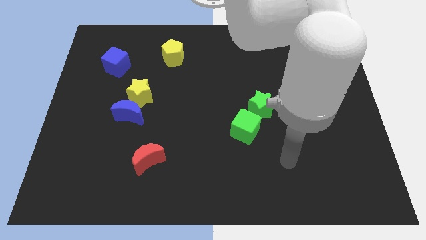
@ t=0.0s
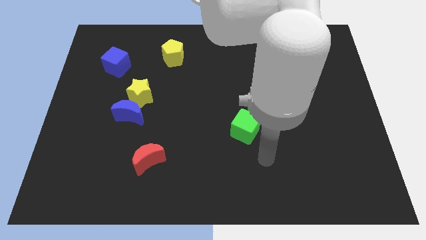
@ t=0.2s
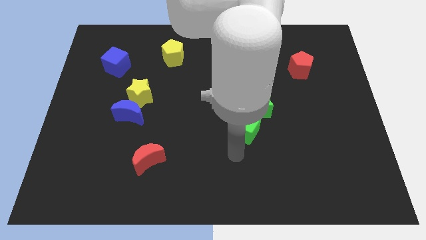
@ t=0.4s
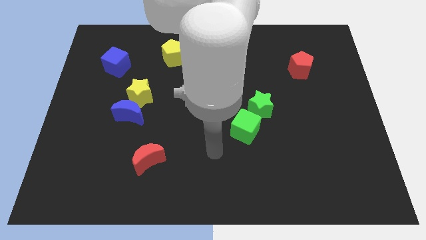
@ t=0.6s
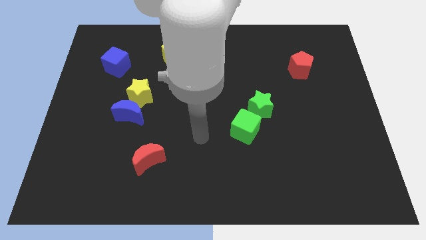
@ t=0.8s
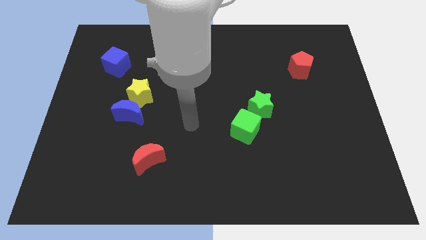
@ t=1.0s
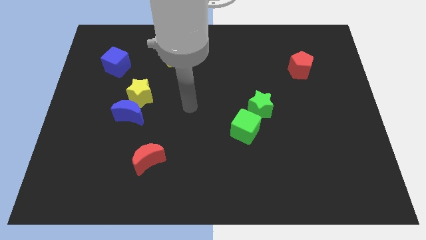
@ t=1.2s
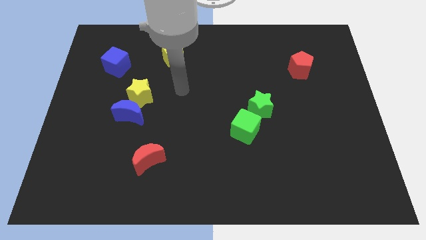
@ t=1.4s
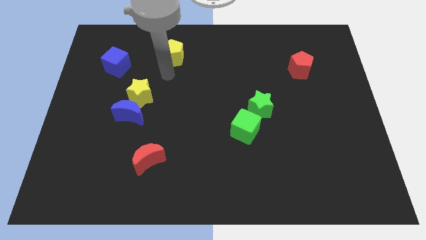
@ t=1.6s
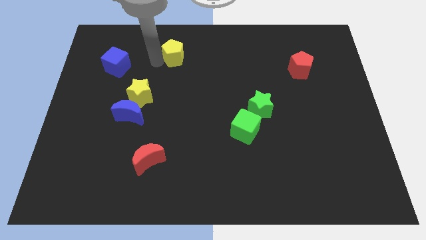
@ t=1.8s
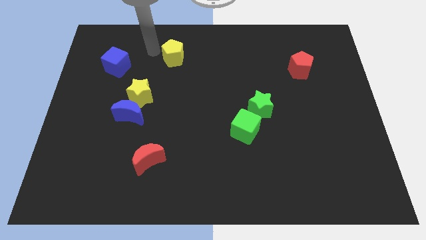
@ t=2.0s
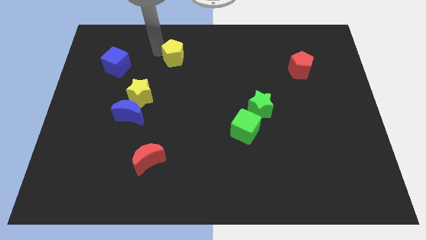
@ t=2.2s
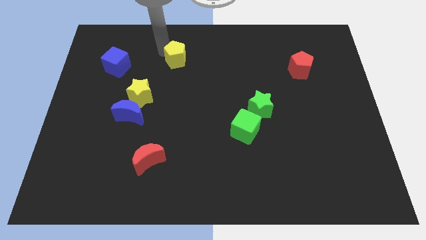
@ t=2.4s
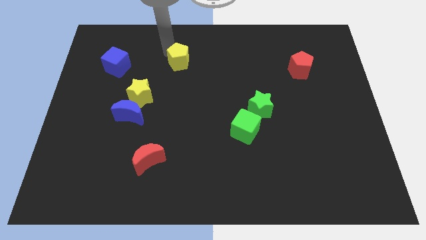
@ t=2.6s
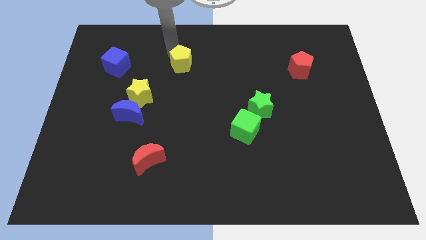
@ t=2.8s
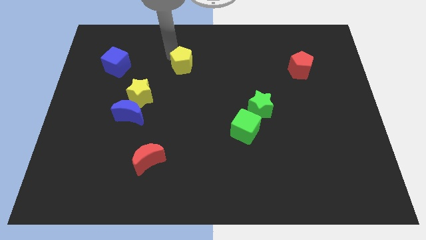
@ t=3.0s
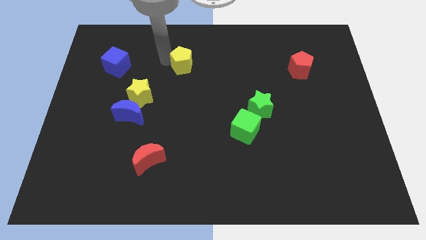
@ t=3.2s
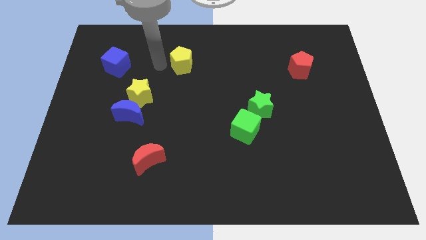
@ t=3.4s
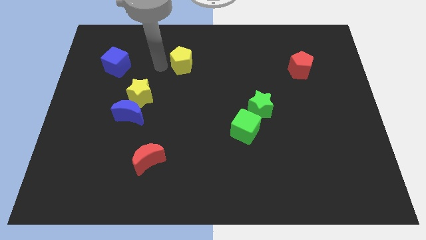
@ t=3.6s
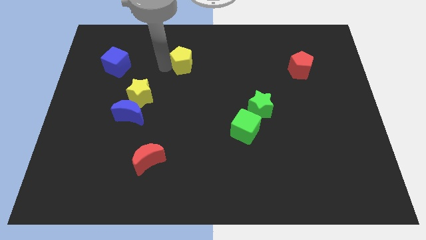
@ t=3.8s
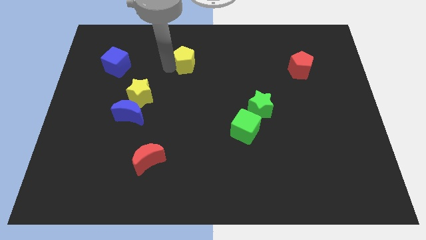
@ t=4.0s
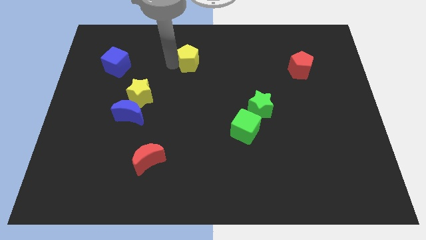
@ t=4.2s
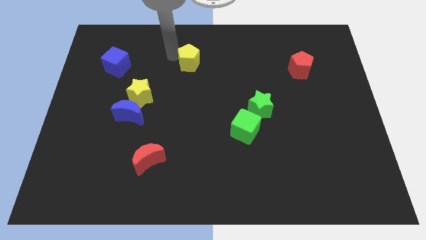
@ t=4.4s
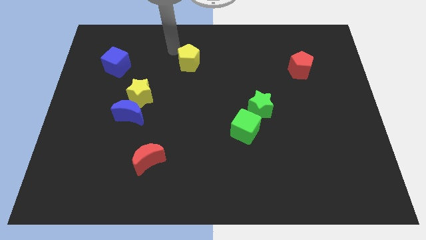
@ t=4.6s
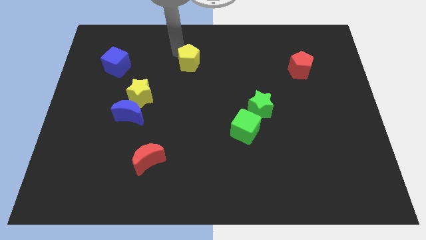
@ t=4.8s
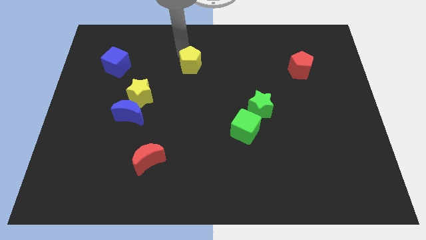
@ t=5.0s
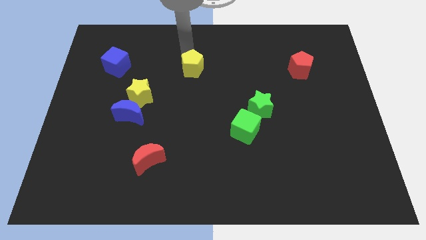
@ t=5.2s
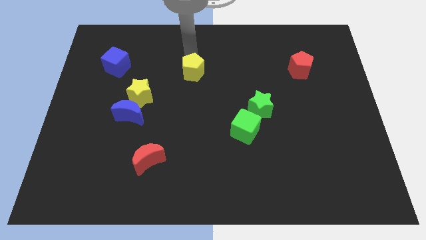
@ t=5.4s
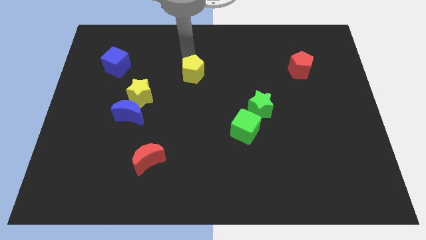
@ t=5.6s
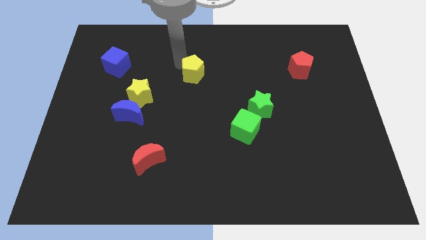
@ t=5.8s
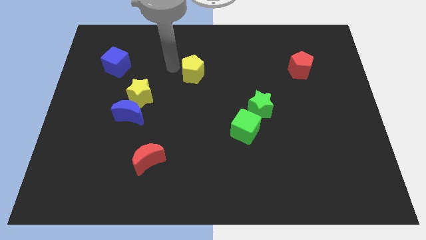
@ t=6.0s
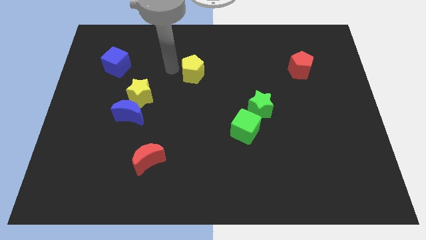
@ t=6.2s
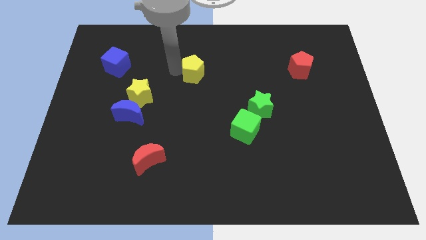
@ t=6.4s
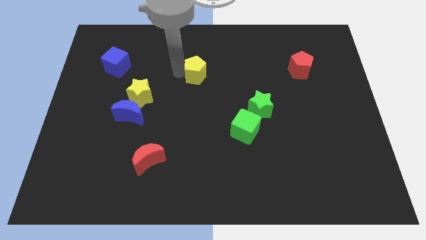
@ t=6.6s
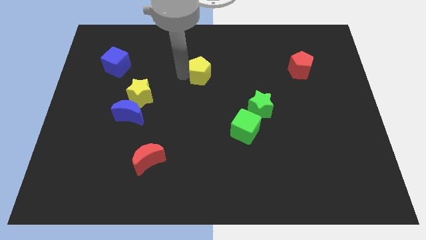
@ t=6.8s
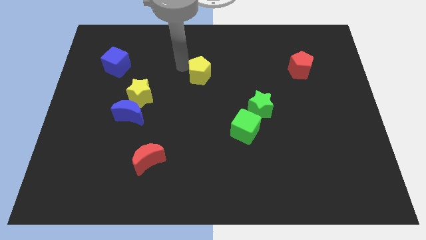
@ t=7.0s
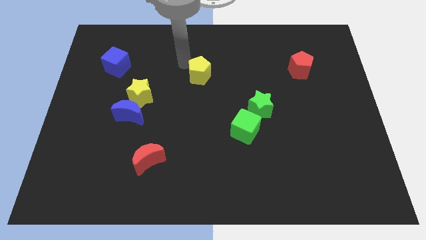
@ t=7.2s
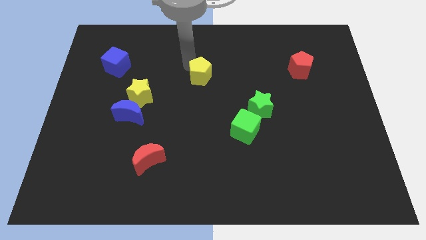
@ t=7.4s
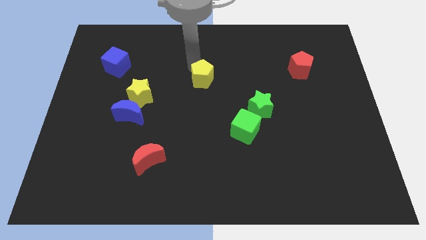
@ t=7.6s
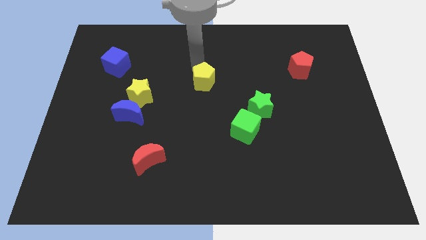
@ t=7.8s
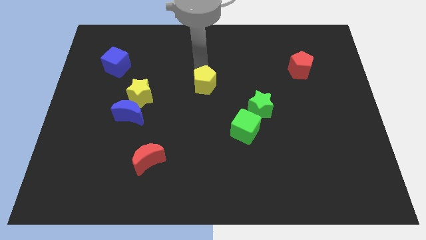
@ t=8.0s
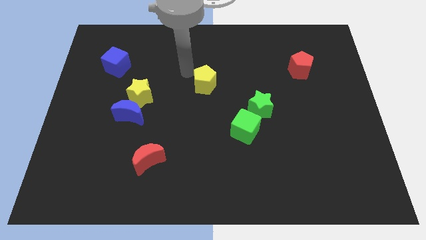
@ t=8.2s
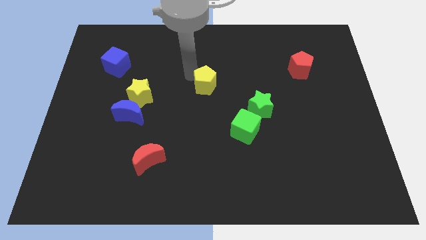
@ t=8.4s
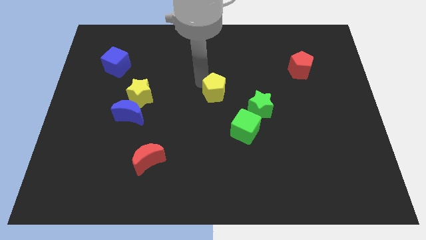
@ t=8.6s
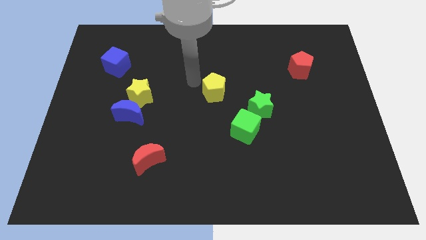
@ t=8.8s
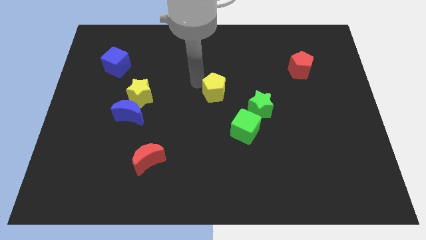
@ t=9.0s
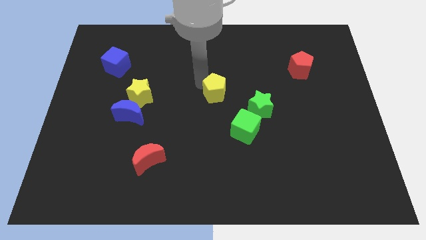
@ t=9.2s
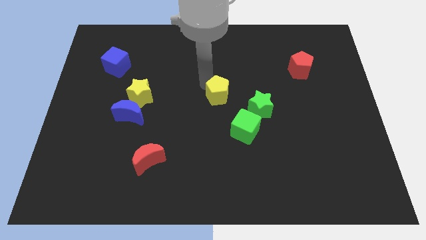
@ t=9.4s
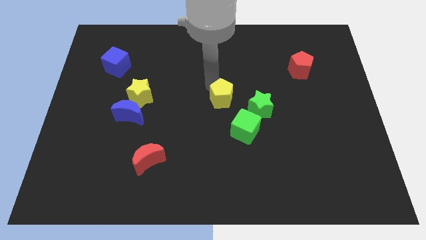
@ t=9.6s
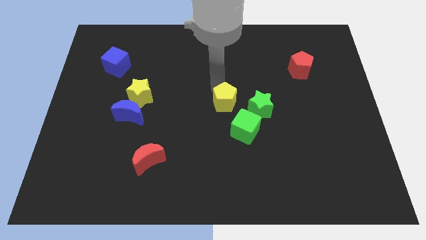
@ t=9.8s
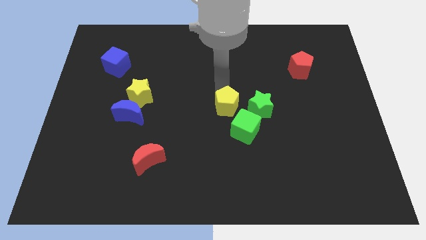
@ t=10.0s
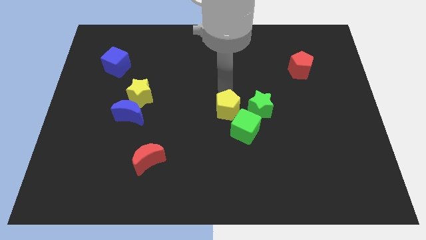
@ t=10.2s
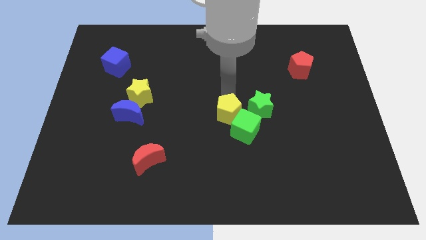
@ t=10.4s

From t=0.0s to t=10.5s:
move the yellow pentagon close to the green cube

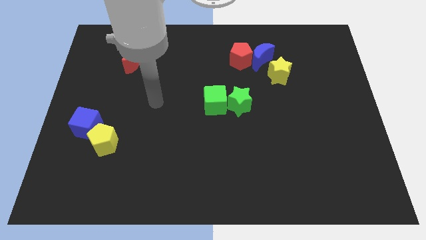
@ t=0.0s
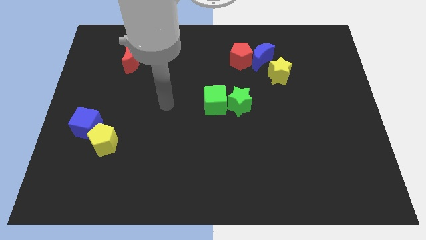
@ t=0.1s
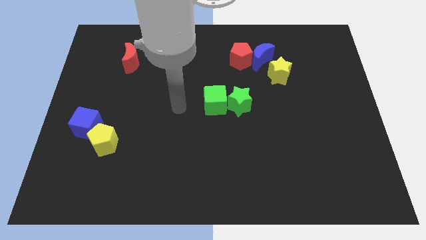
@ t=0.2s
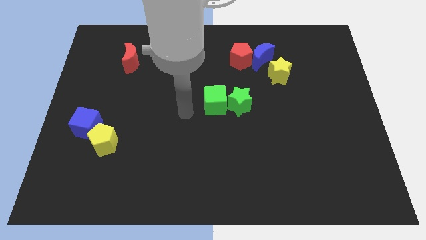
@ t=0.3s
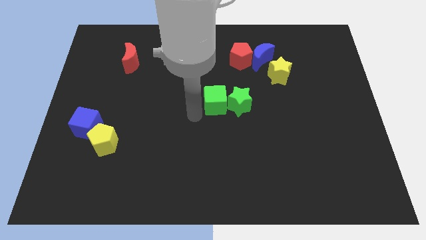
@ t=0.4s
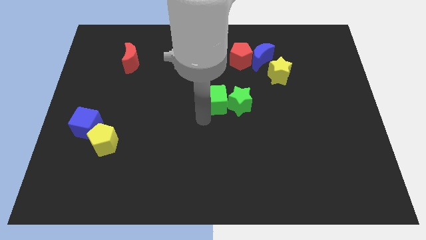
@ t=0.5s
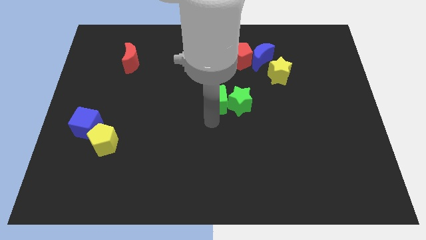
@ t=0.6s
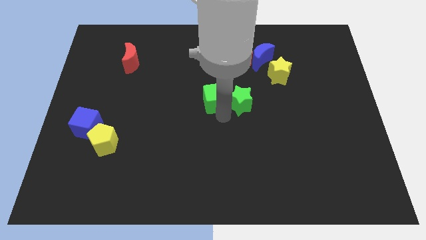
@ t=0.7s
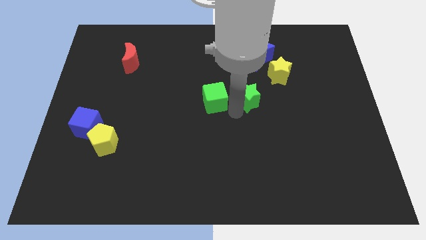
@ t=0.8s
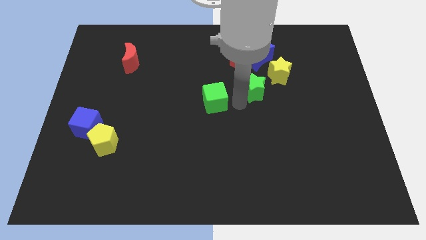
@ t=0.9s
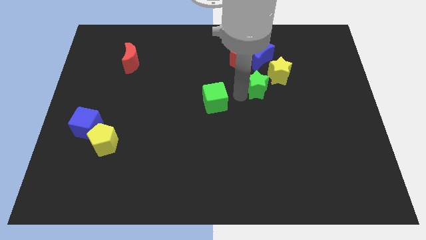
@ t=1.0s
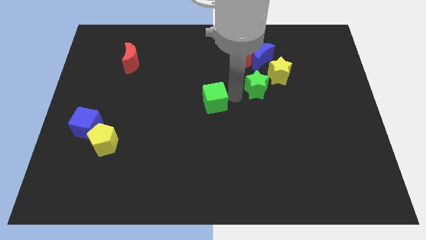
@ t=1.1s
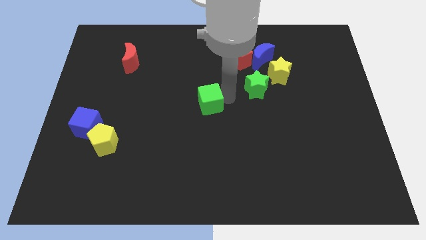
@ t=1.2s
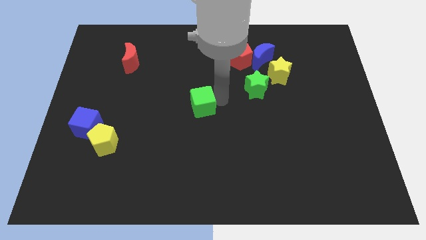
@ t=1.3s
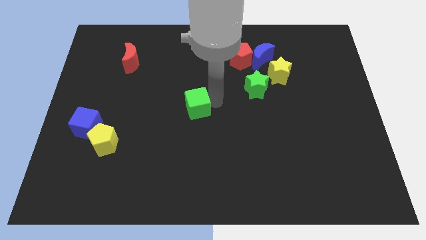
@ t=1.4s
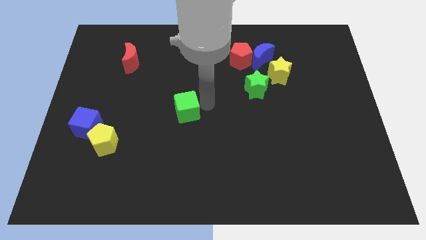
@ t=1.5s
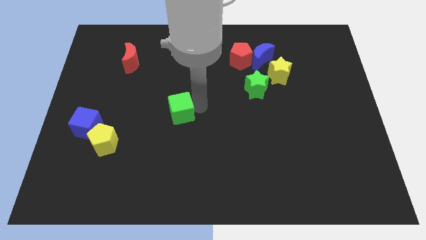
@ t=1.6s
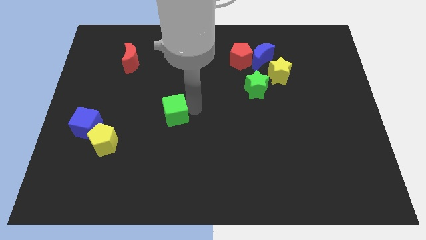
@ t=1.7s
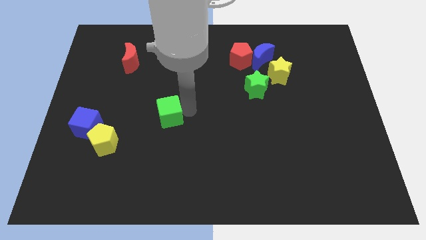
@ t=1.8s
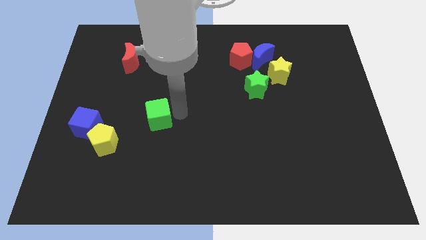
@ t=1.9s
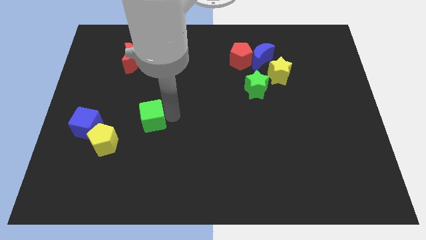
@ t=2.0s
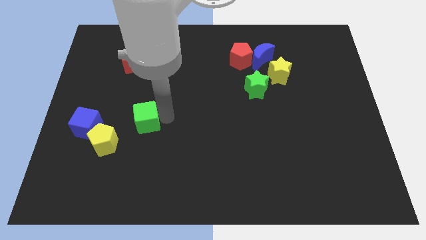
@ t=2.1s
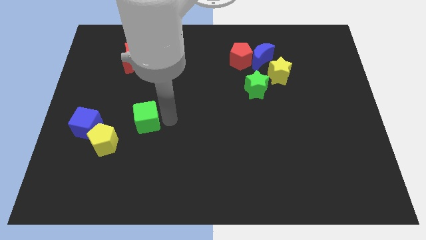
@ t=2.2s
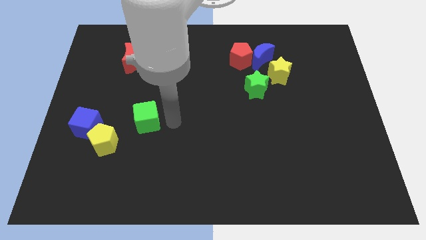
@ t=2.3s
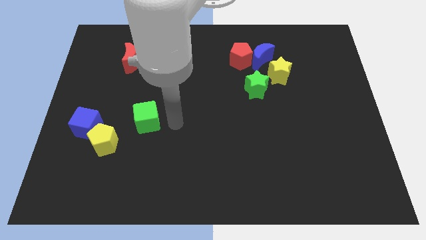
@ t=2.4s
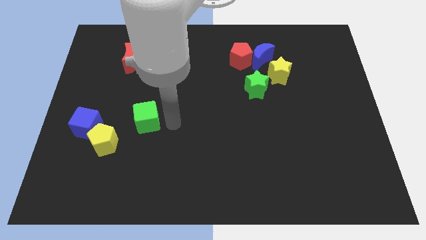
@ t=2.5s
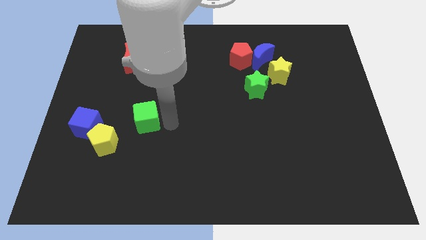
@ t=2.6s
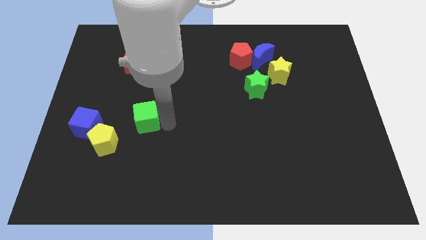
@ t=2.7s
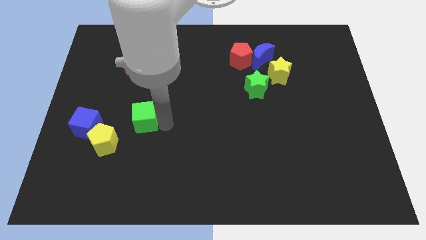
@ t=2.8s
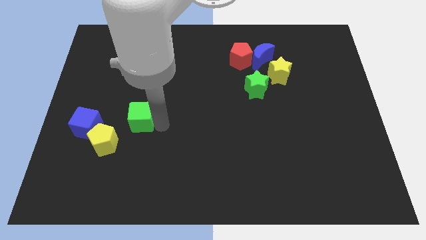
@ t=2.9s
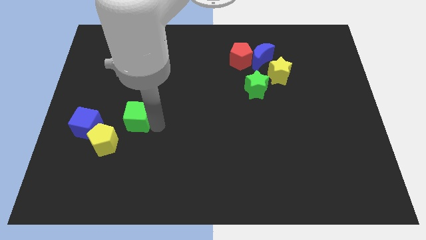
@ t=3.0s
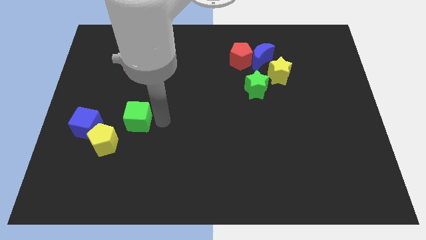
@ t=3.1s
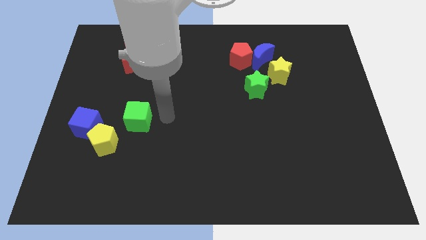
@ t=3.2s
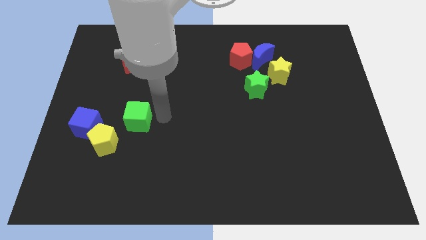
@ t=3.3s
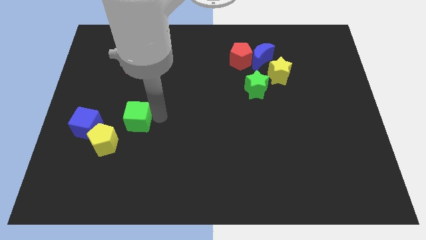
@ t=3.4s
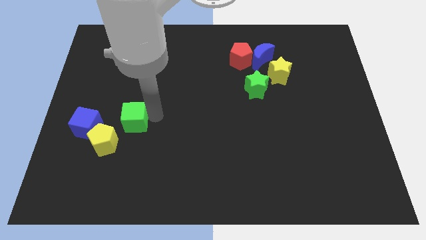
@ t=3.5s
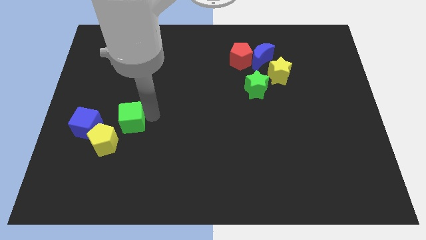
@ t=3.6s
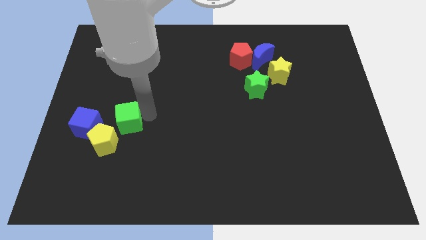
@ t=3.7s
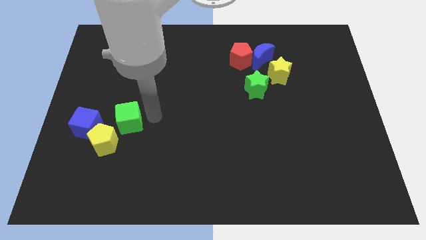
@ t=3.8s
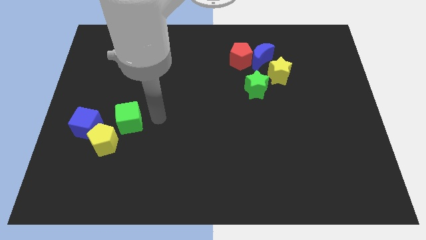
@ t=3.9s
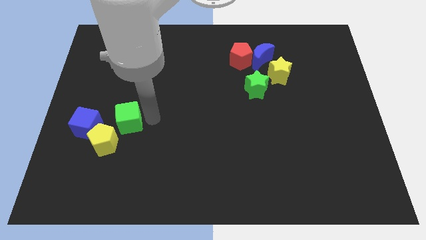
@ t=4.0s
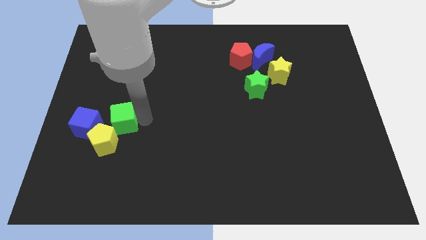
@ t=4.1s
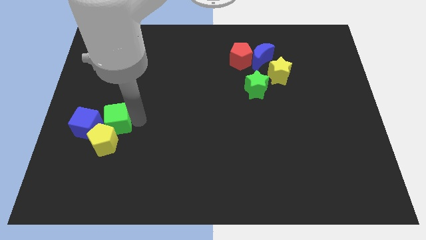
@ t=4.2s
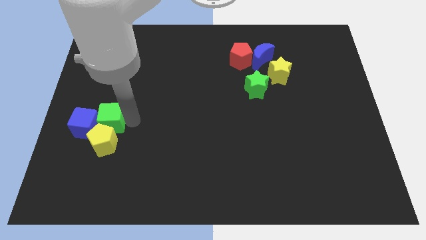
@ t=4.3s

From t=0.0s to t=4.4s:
put the green cube to the blue cube
